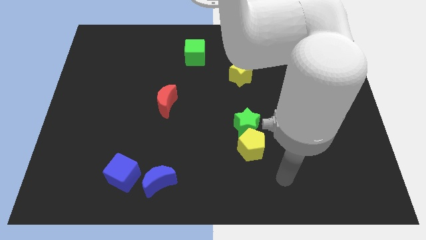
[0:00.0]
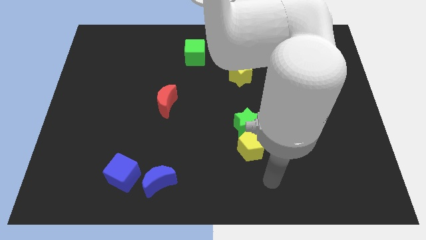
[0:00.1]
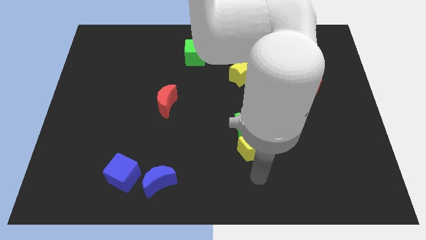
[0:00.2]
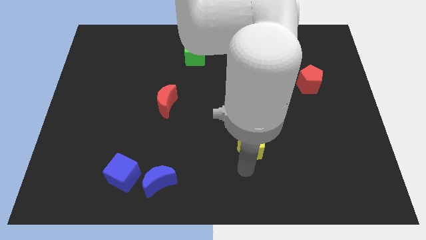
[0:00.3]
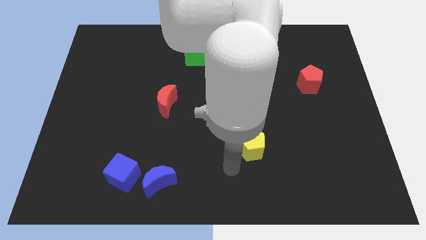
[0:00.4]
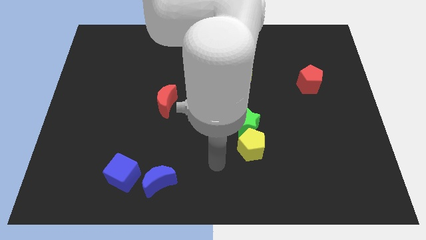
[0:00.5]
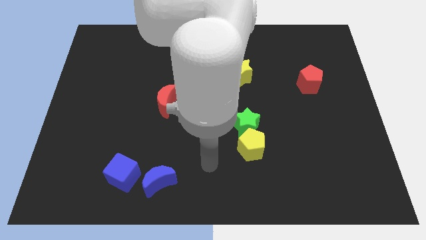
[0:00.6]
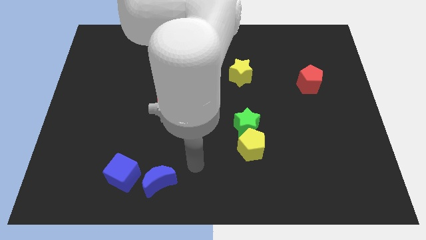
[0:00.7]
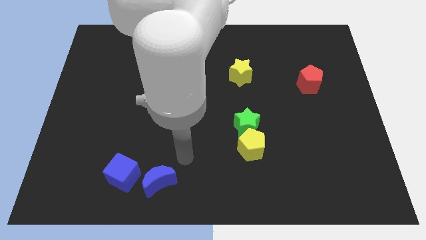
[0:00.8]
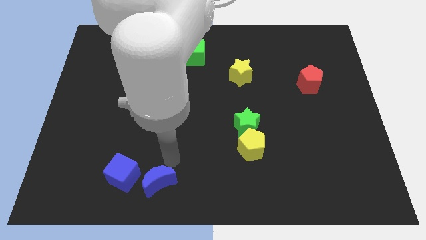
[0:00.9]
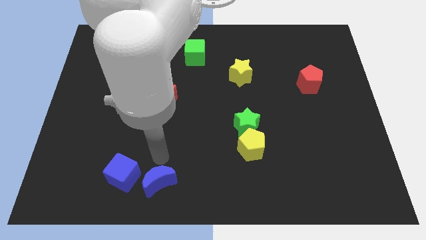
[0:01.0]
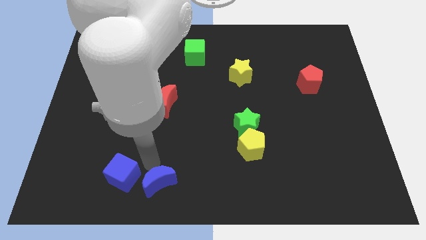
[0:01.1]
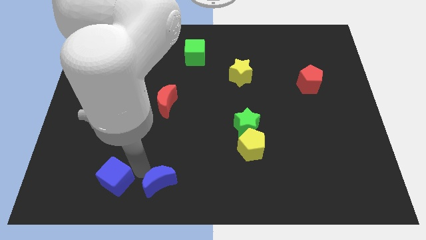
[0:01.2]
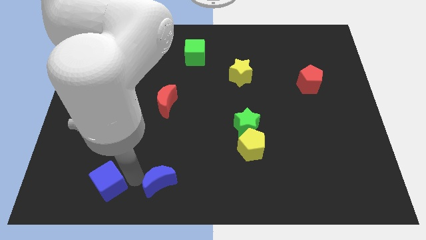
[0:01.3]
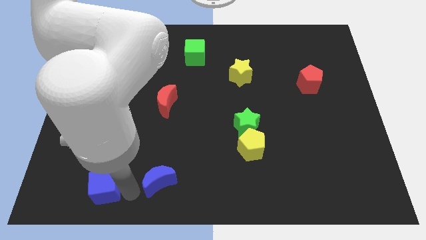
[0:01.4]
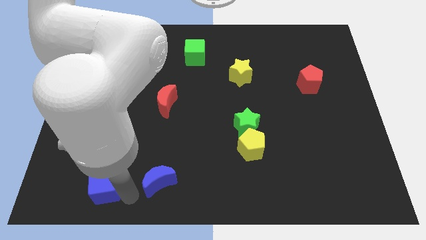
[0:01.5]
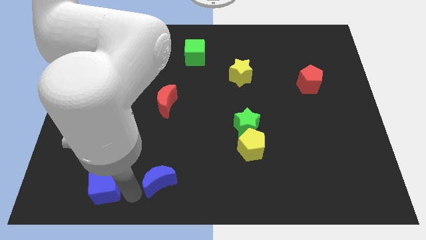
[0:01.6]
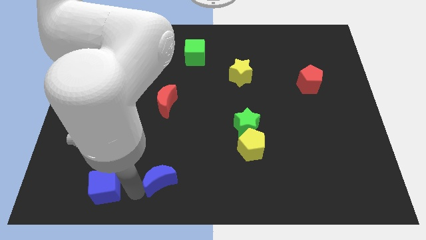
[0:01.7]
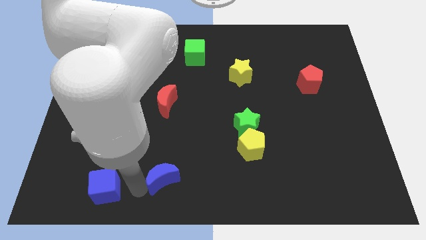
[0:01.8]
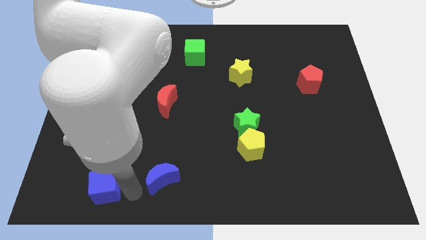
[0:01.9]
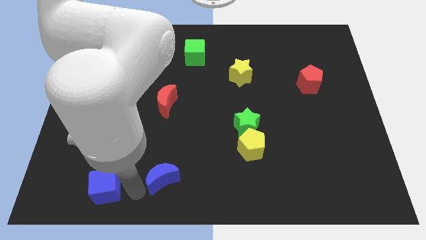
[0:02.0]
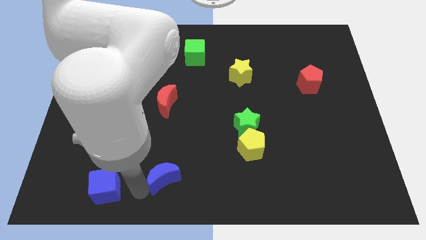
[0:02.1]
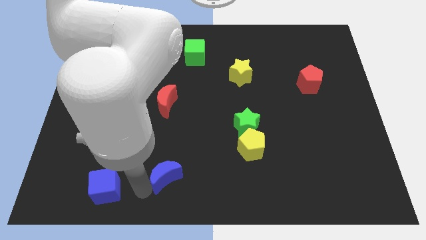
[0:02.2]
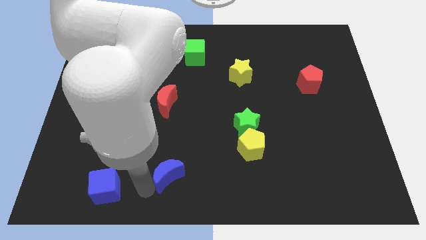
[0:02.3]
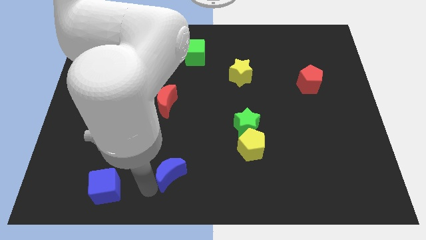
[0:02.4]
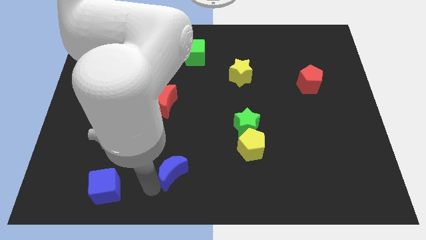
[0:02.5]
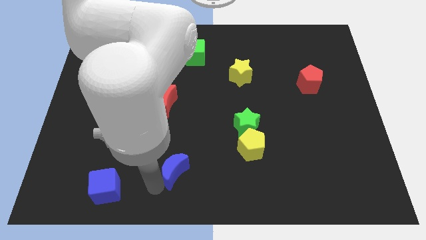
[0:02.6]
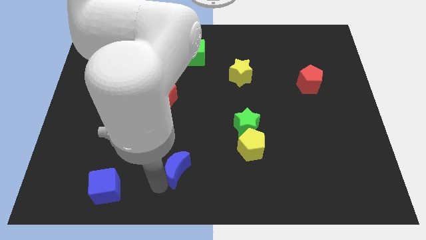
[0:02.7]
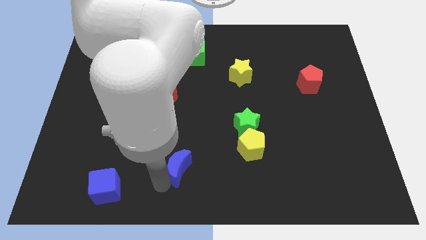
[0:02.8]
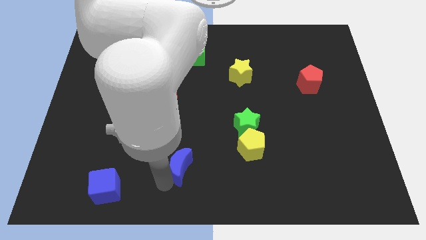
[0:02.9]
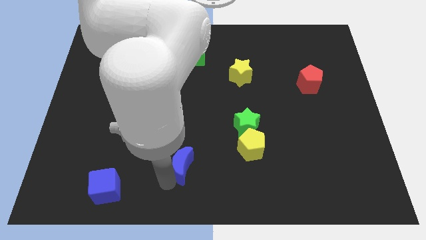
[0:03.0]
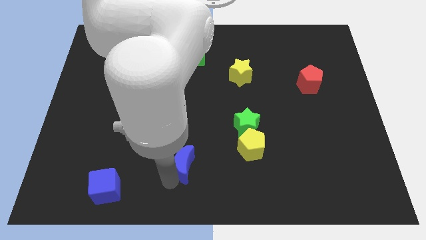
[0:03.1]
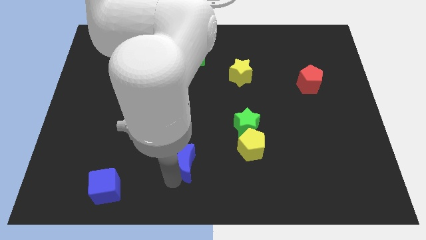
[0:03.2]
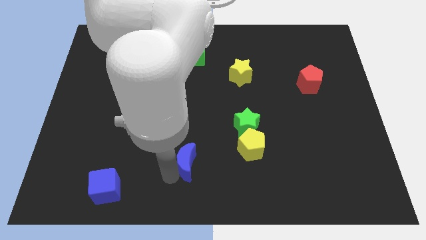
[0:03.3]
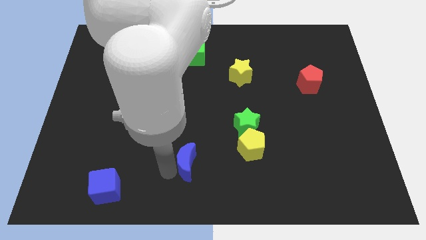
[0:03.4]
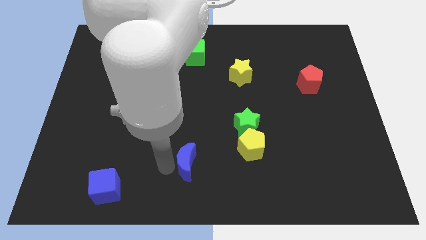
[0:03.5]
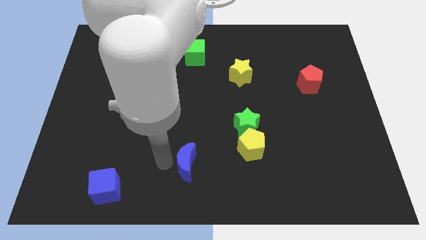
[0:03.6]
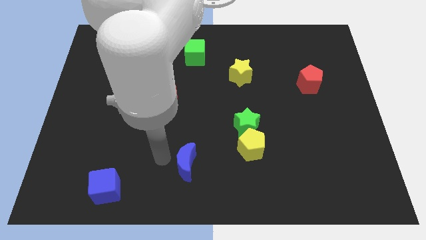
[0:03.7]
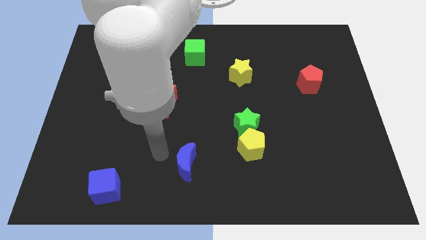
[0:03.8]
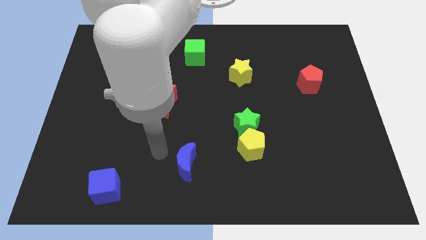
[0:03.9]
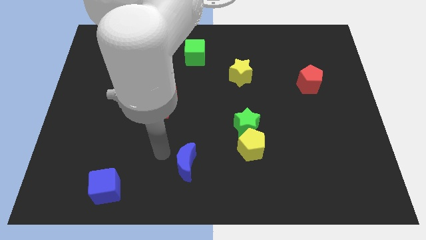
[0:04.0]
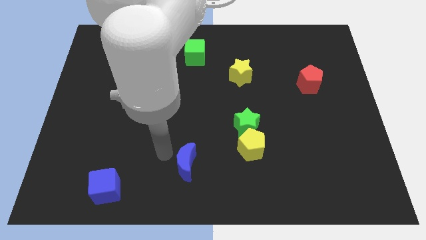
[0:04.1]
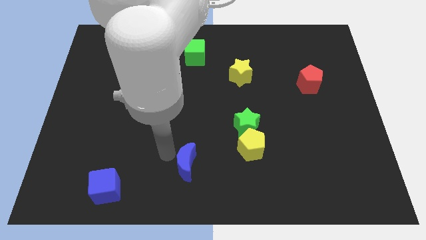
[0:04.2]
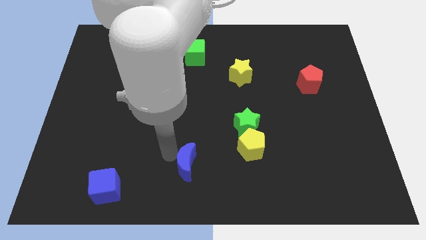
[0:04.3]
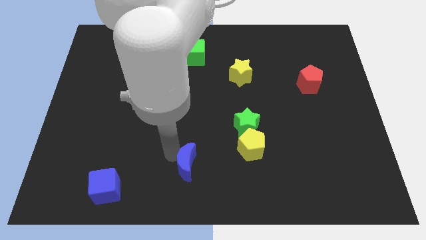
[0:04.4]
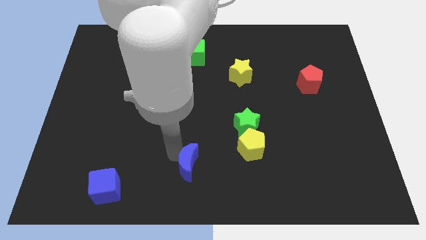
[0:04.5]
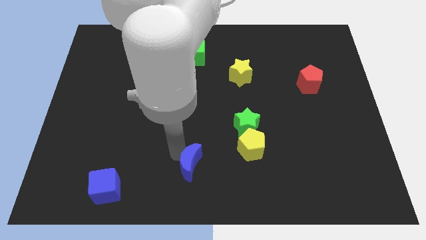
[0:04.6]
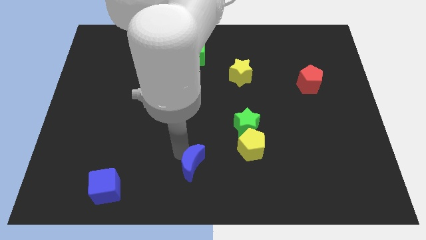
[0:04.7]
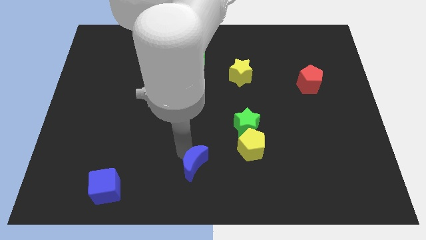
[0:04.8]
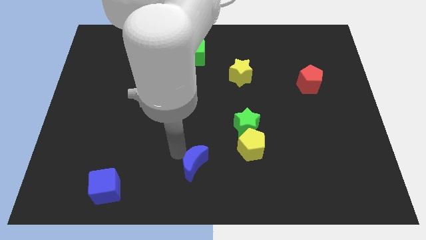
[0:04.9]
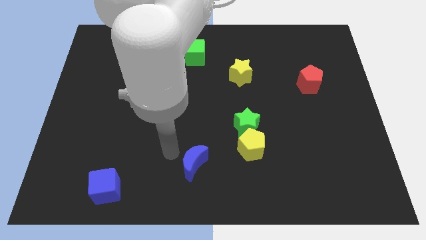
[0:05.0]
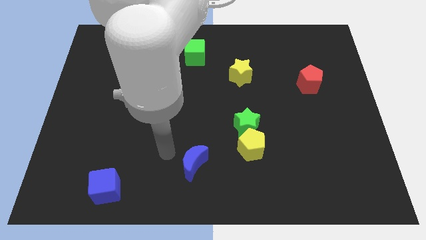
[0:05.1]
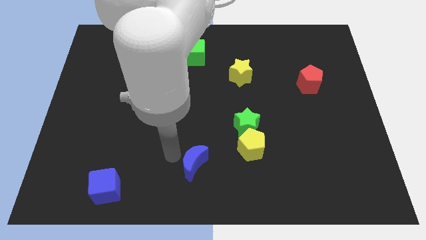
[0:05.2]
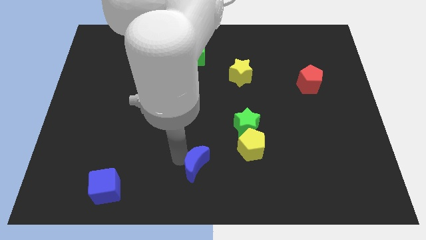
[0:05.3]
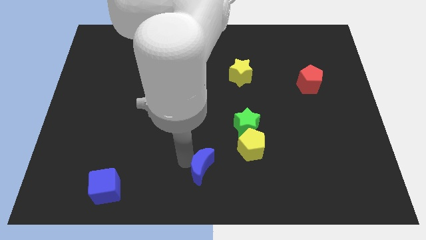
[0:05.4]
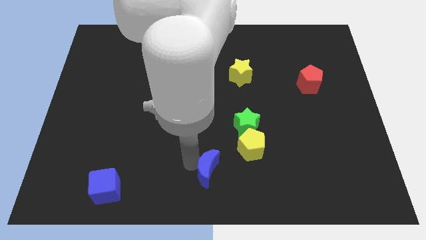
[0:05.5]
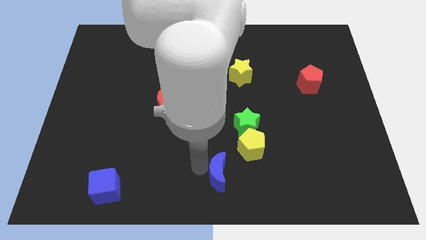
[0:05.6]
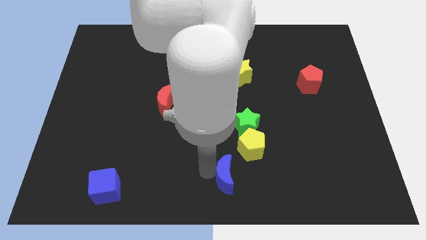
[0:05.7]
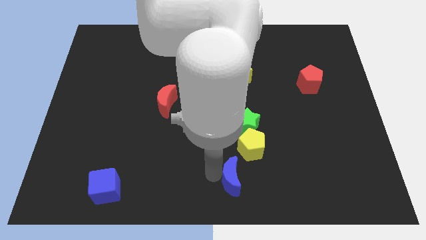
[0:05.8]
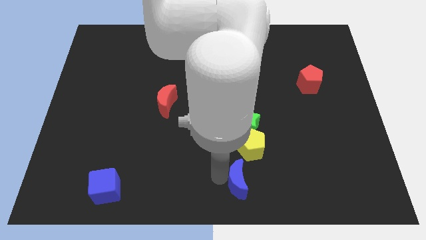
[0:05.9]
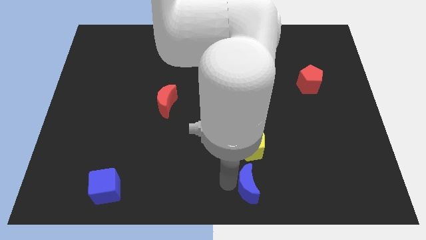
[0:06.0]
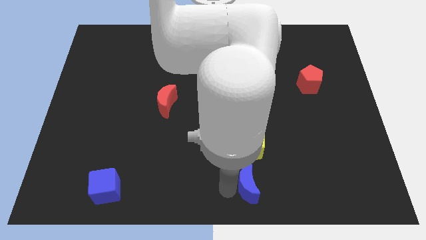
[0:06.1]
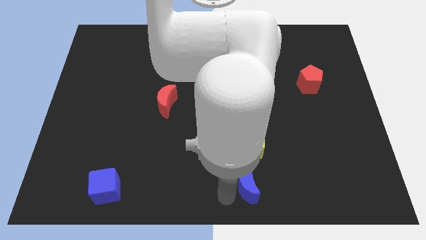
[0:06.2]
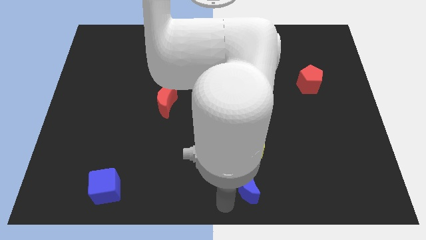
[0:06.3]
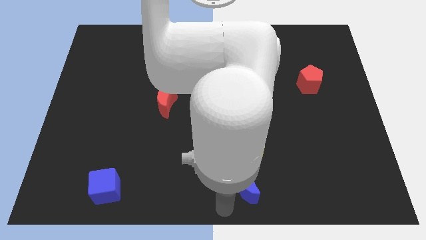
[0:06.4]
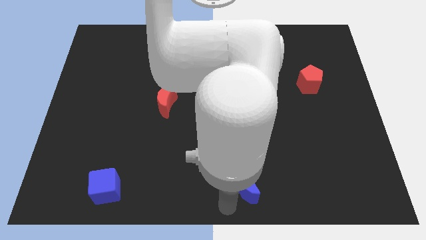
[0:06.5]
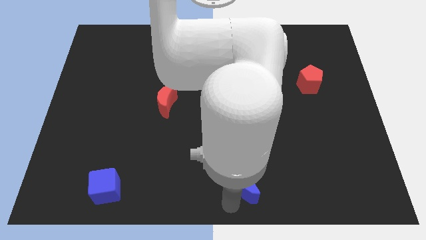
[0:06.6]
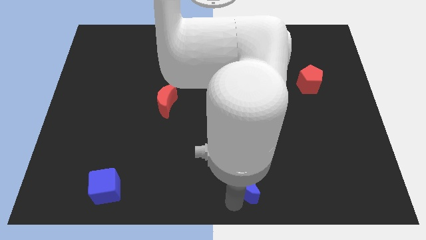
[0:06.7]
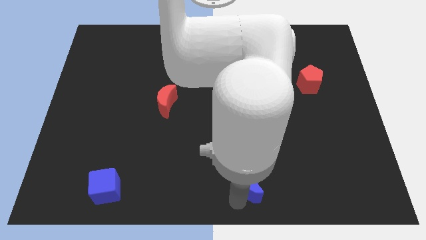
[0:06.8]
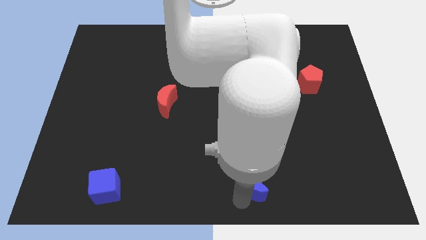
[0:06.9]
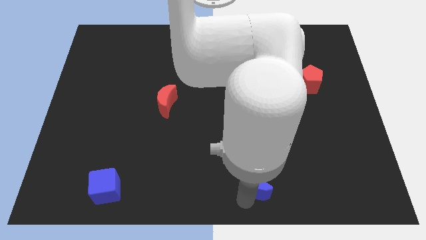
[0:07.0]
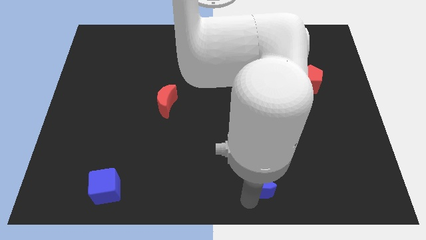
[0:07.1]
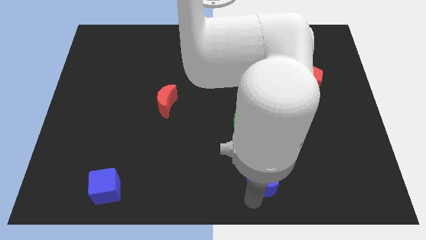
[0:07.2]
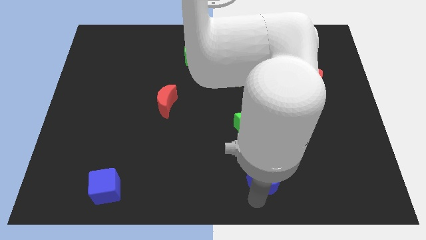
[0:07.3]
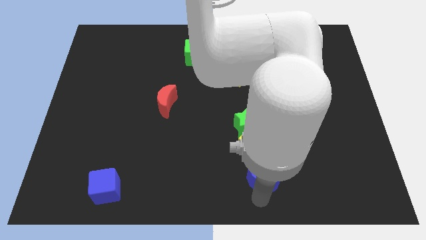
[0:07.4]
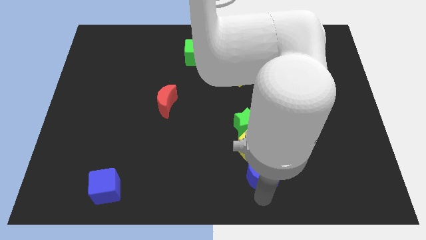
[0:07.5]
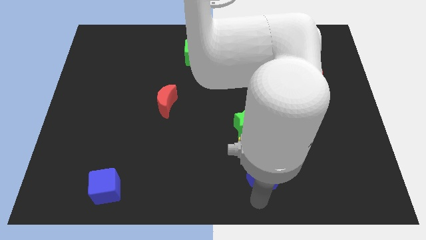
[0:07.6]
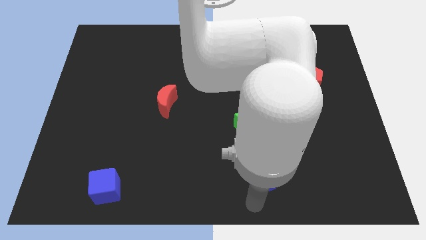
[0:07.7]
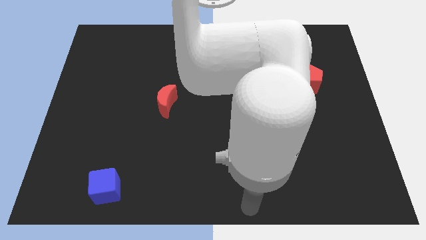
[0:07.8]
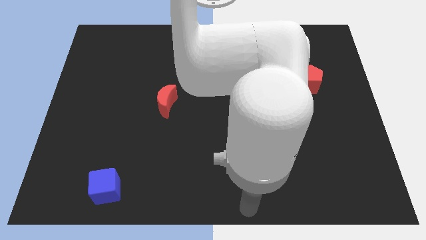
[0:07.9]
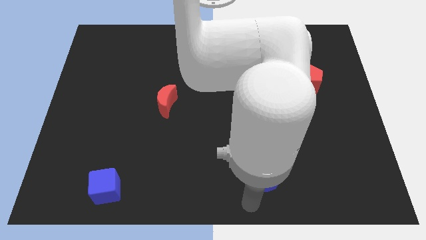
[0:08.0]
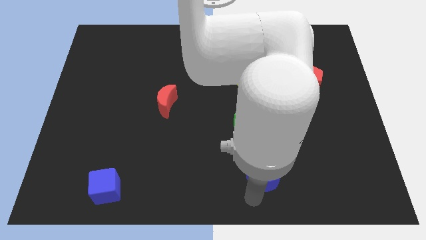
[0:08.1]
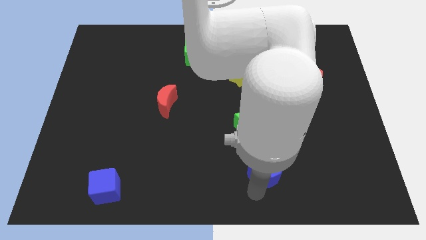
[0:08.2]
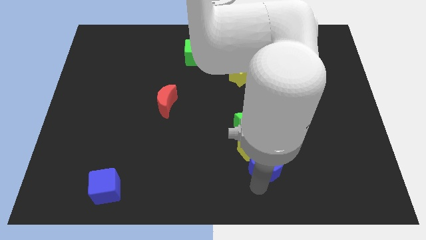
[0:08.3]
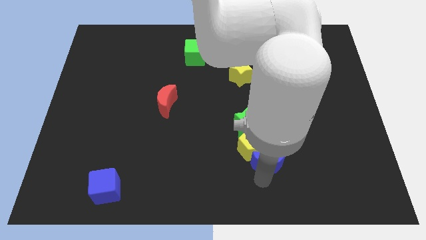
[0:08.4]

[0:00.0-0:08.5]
put the blue moon to the bottom right side of the green star
